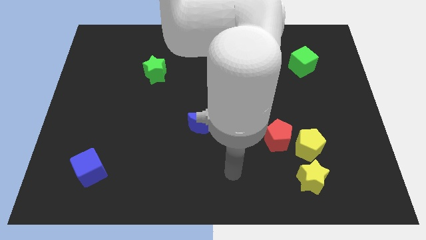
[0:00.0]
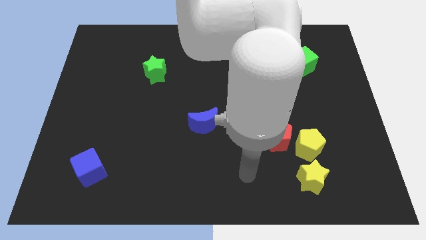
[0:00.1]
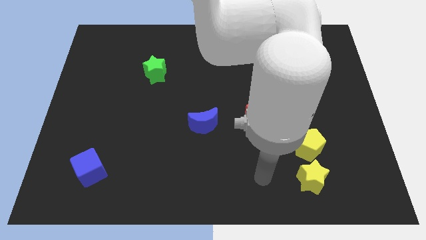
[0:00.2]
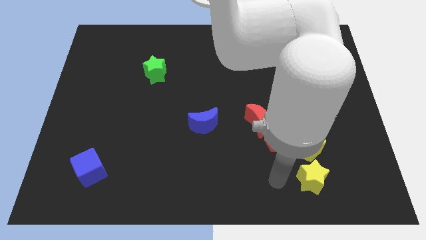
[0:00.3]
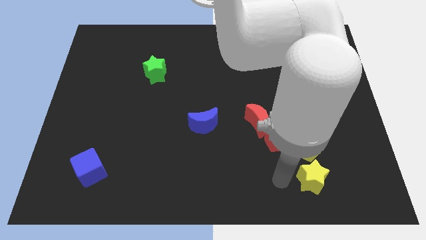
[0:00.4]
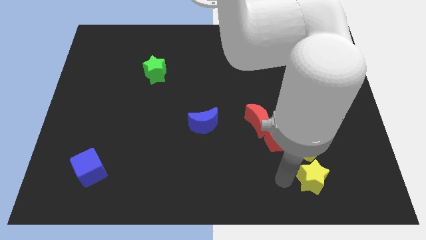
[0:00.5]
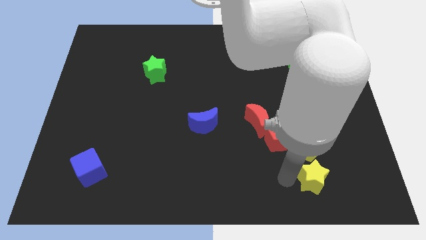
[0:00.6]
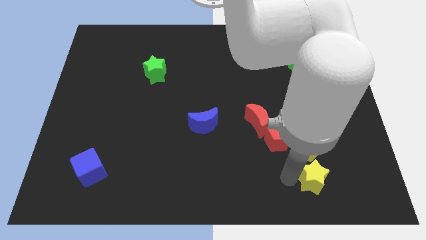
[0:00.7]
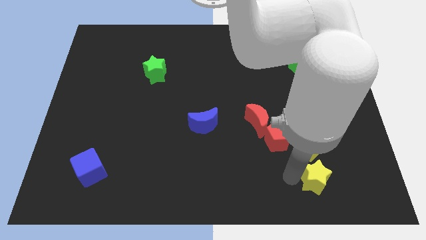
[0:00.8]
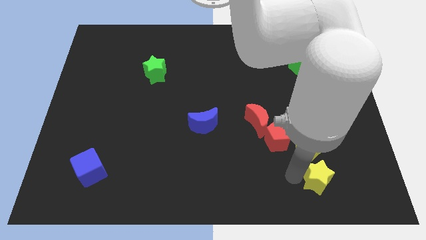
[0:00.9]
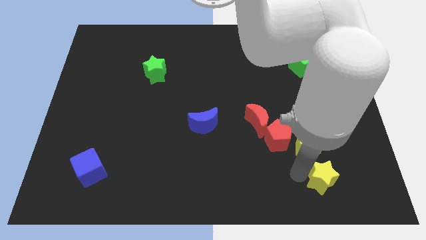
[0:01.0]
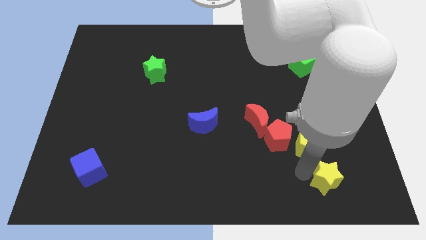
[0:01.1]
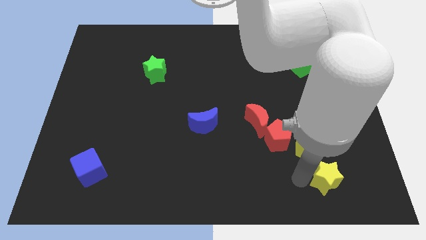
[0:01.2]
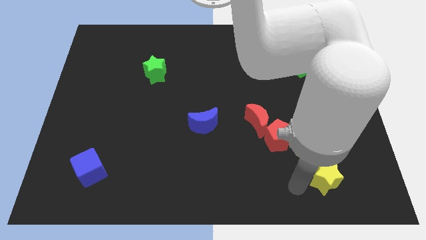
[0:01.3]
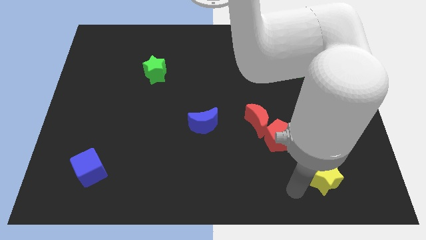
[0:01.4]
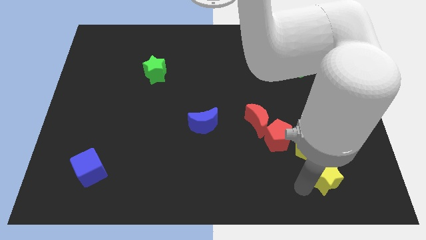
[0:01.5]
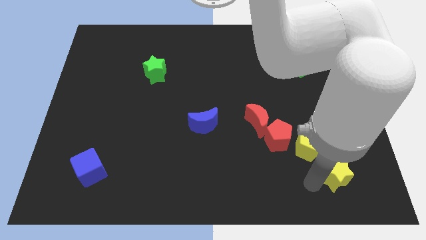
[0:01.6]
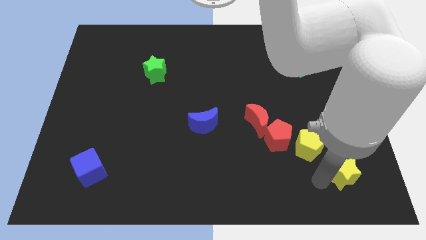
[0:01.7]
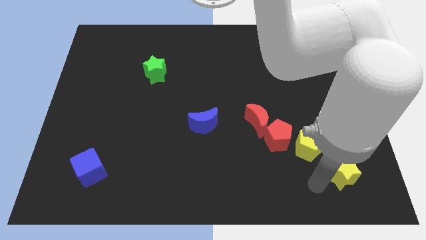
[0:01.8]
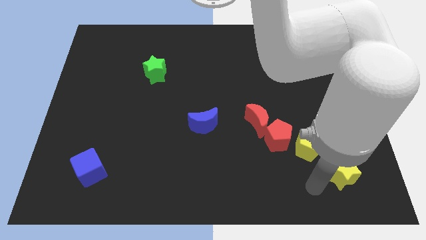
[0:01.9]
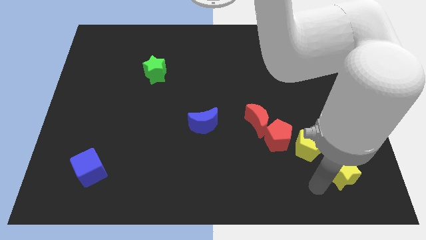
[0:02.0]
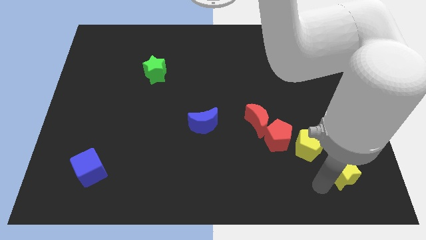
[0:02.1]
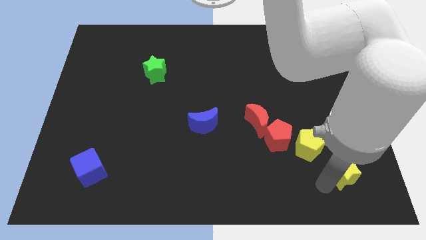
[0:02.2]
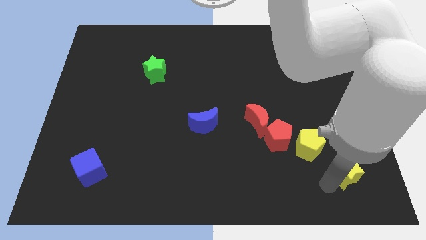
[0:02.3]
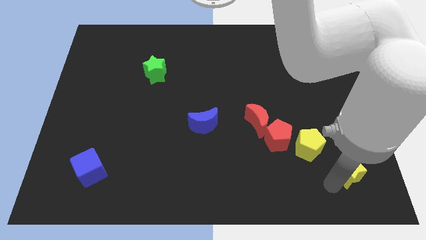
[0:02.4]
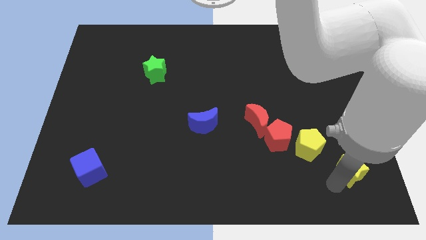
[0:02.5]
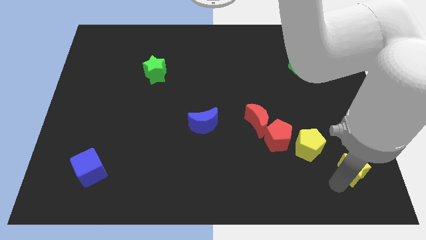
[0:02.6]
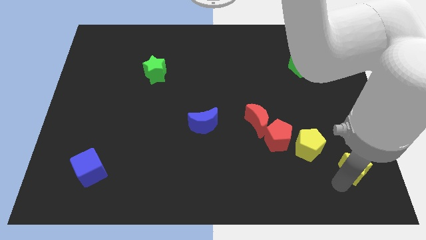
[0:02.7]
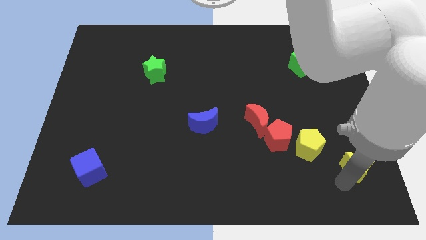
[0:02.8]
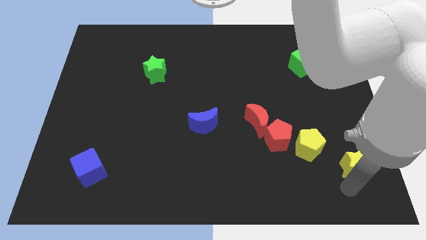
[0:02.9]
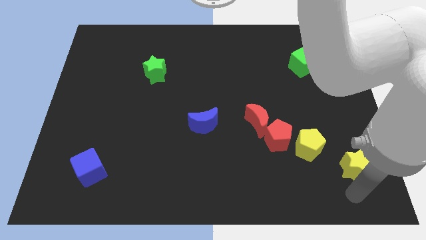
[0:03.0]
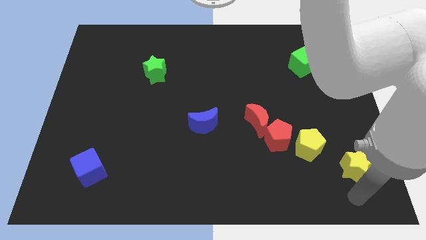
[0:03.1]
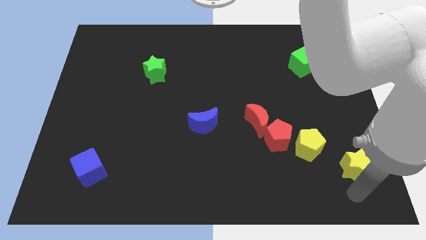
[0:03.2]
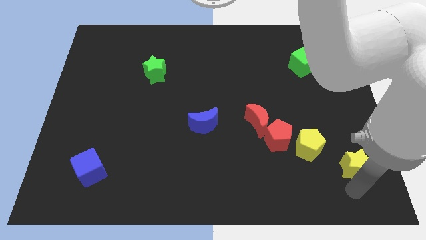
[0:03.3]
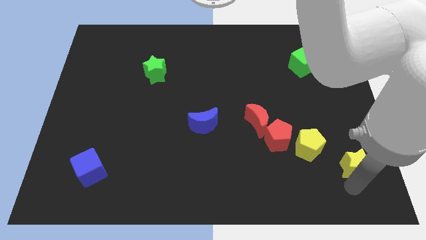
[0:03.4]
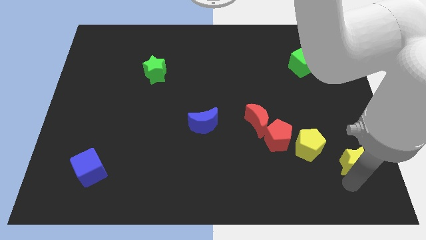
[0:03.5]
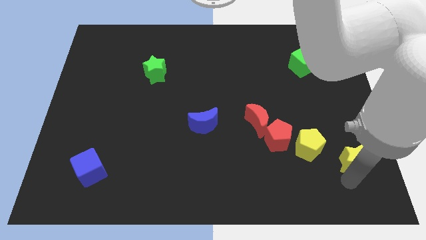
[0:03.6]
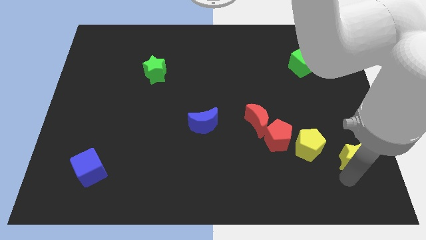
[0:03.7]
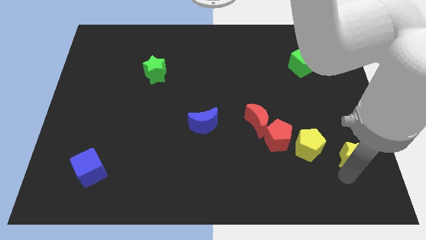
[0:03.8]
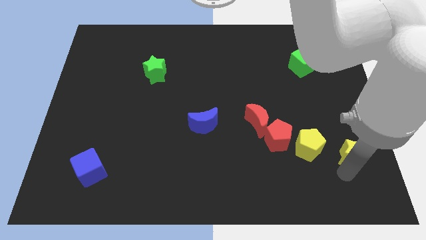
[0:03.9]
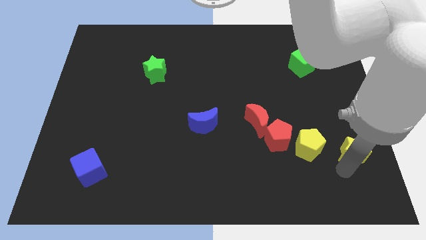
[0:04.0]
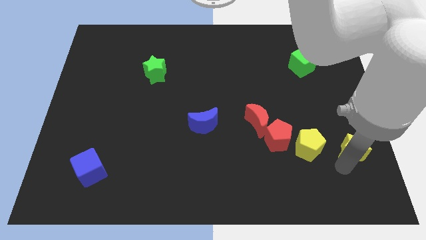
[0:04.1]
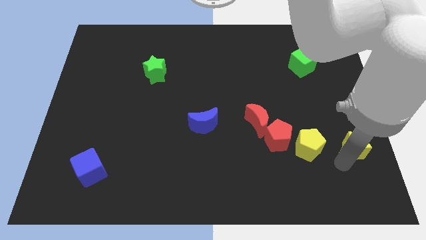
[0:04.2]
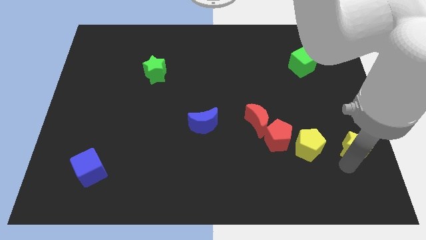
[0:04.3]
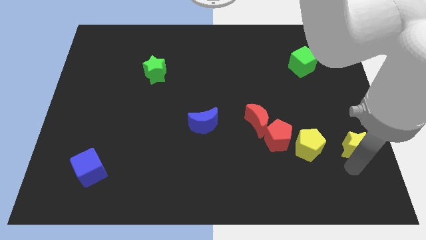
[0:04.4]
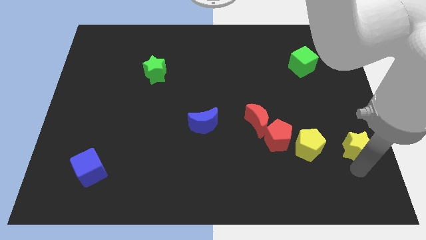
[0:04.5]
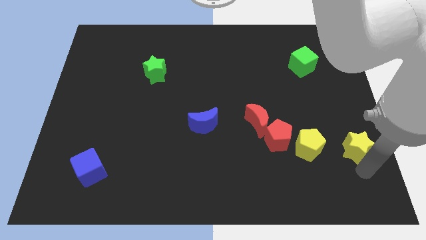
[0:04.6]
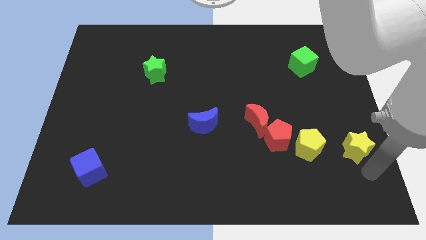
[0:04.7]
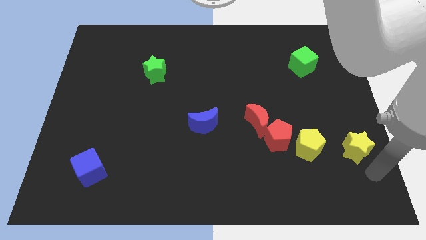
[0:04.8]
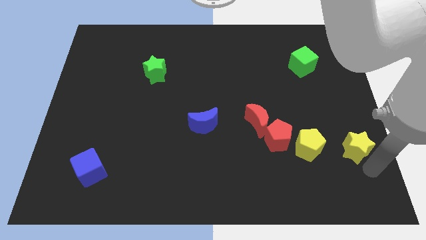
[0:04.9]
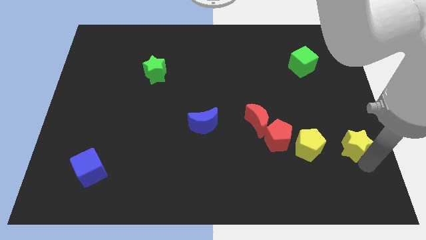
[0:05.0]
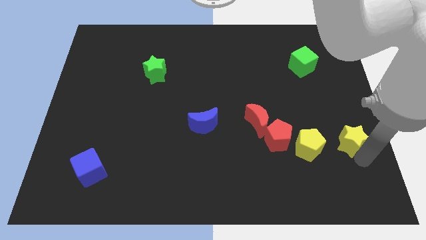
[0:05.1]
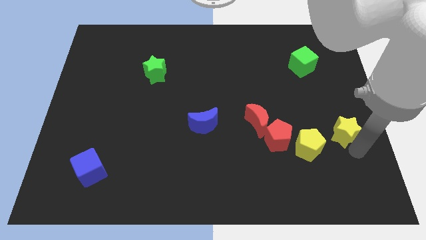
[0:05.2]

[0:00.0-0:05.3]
move the yellow star a little up

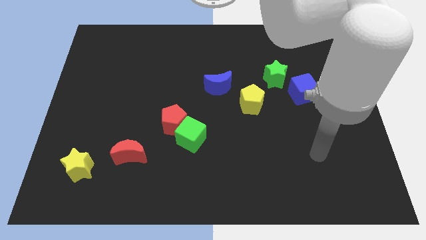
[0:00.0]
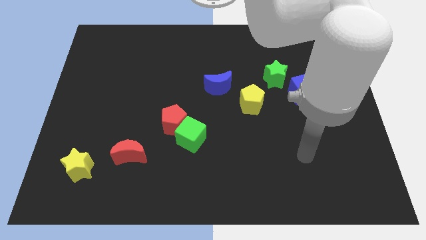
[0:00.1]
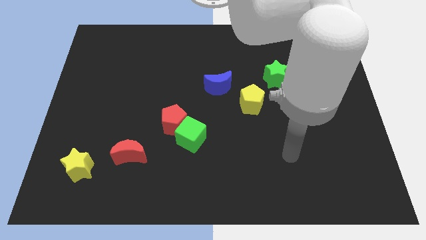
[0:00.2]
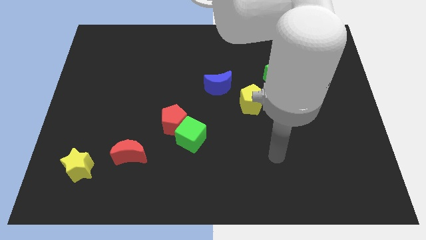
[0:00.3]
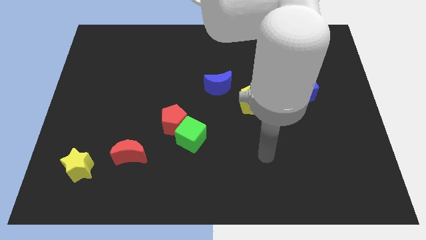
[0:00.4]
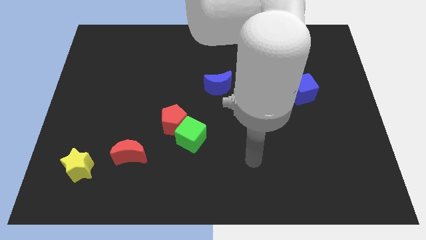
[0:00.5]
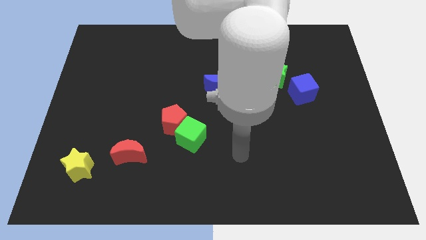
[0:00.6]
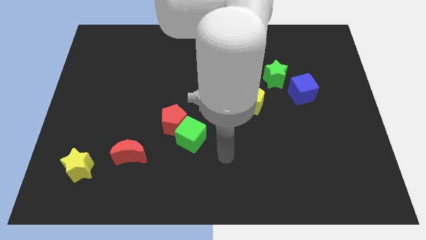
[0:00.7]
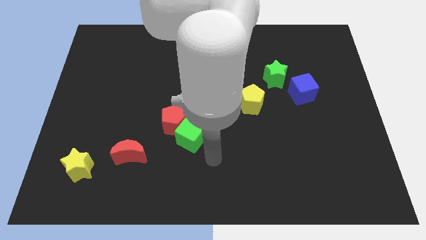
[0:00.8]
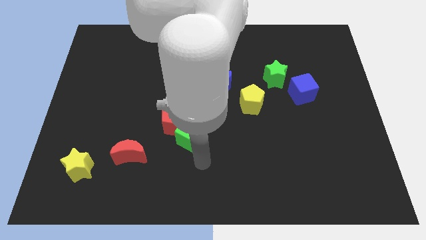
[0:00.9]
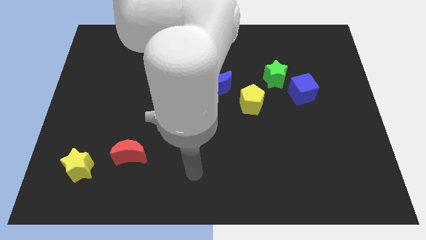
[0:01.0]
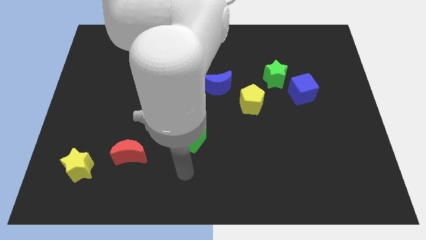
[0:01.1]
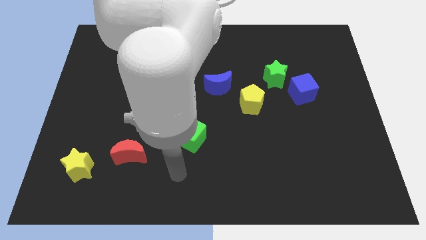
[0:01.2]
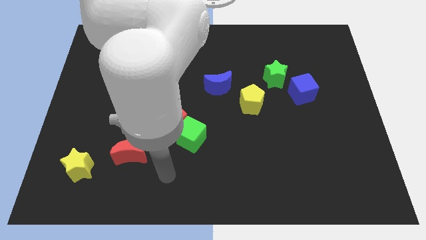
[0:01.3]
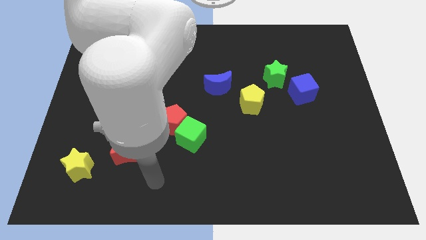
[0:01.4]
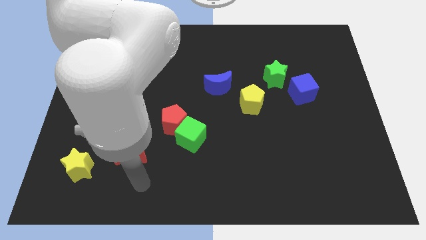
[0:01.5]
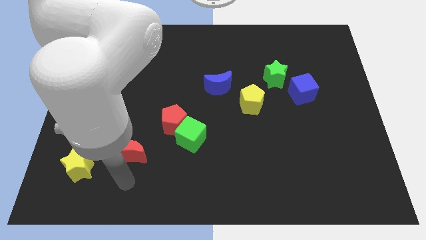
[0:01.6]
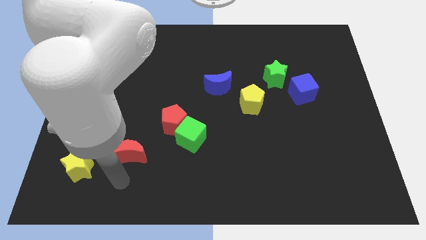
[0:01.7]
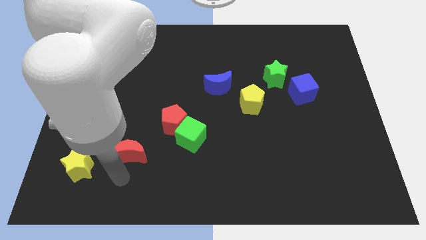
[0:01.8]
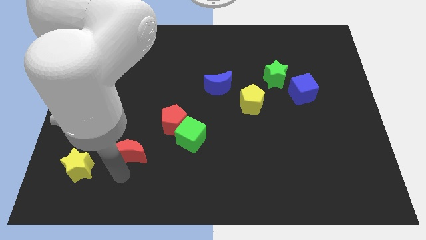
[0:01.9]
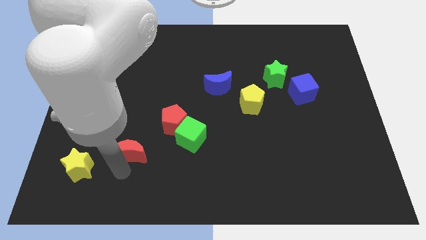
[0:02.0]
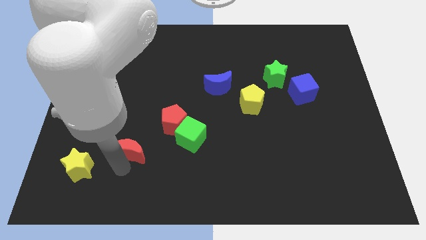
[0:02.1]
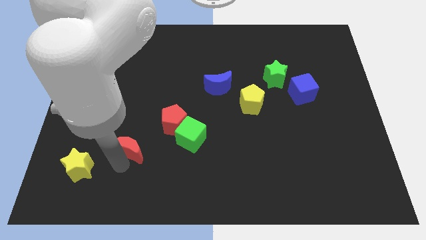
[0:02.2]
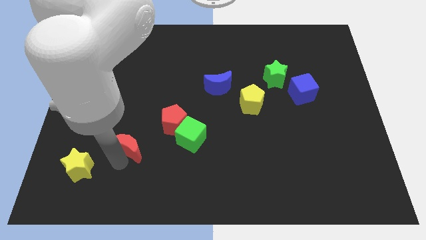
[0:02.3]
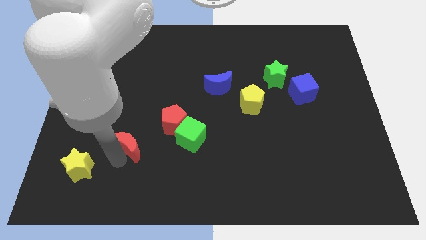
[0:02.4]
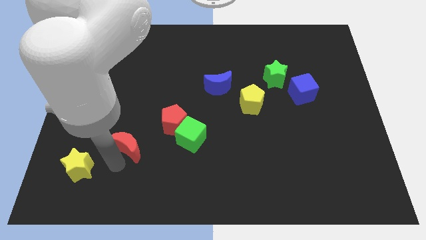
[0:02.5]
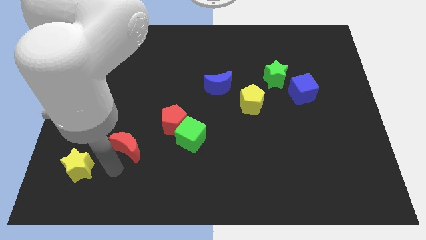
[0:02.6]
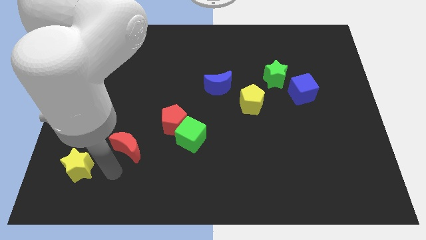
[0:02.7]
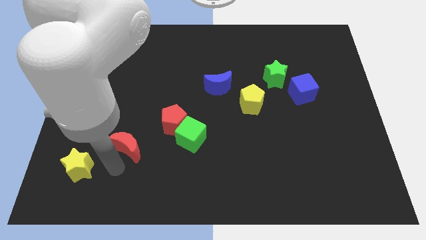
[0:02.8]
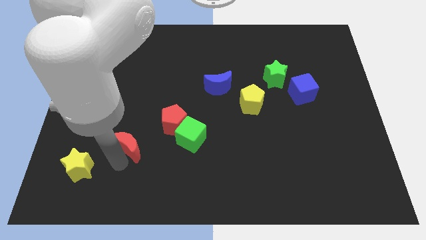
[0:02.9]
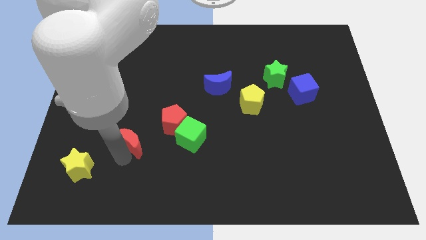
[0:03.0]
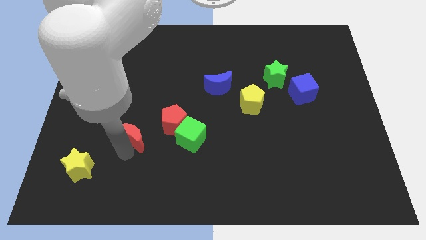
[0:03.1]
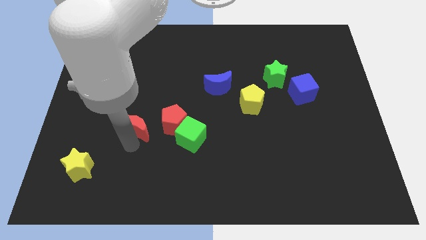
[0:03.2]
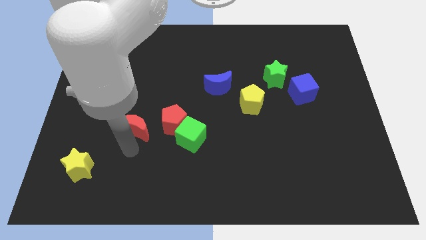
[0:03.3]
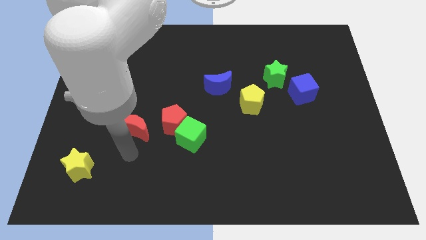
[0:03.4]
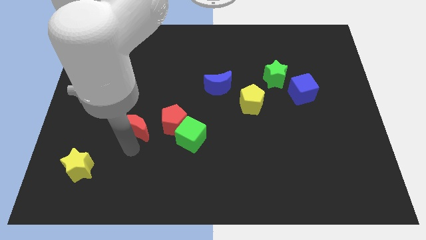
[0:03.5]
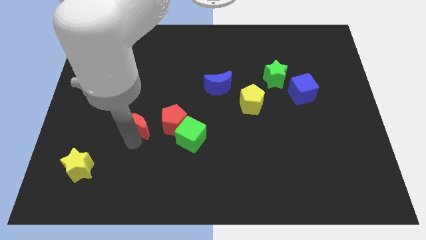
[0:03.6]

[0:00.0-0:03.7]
push the red moon somewhat up
